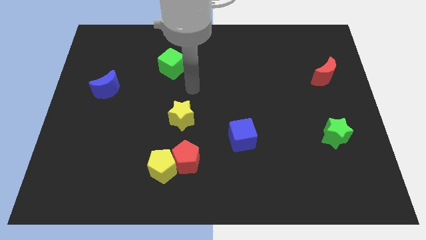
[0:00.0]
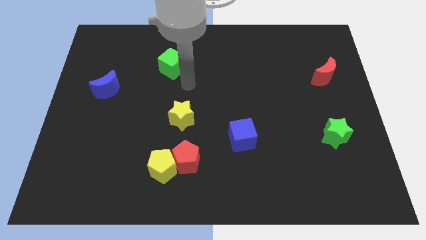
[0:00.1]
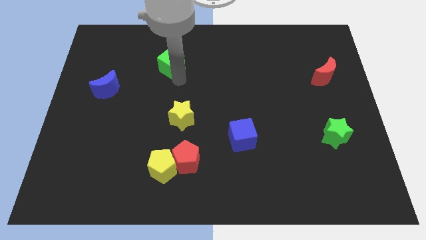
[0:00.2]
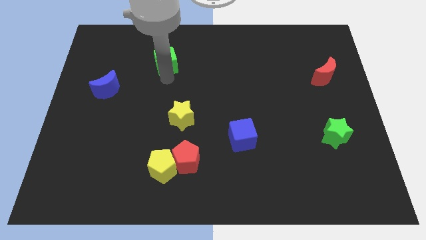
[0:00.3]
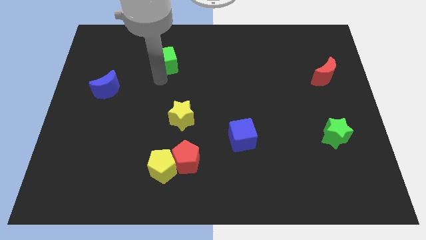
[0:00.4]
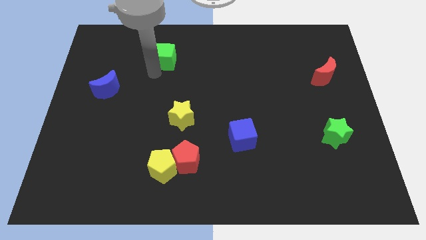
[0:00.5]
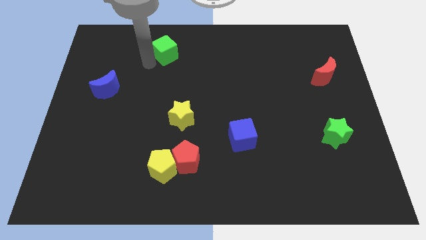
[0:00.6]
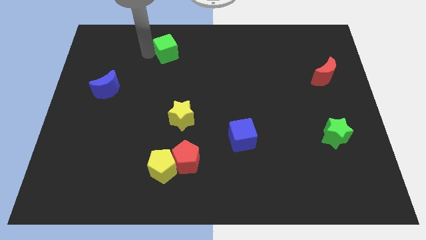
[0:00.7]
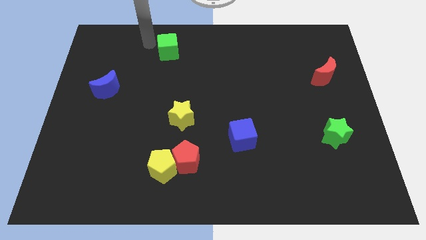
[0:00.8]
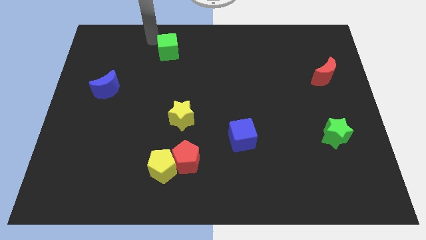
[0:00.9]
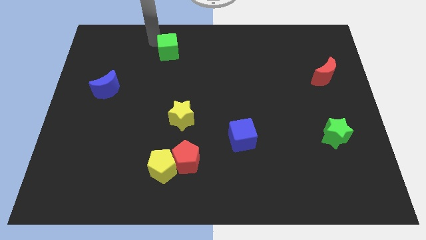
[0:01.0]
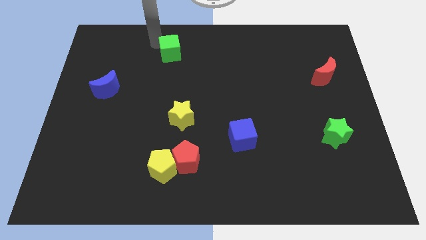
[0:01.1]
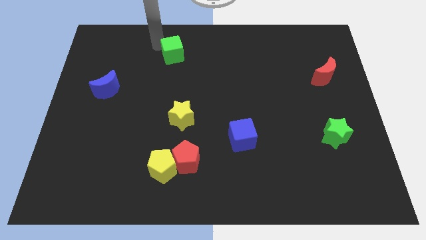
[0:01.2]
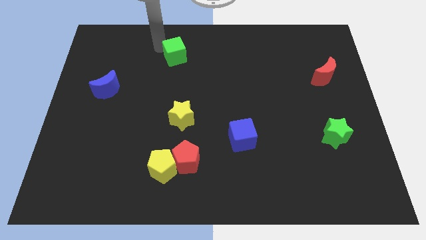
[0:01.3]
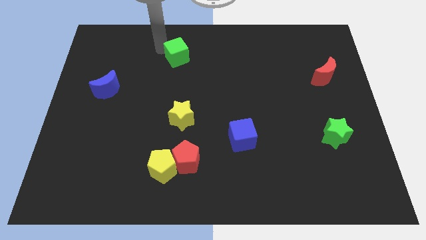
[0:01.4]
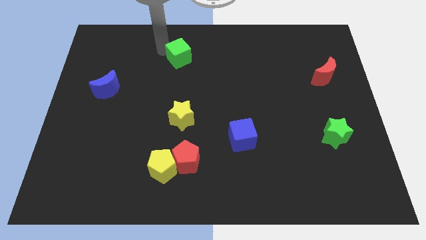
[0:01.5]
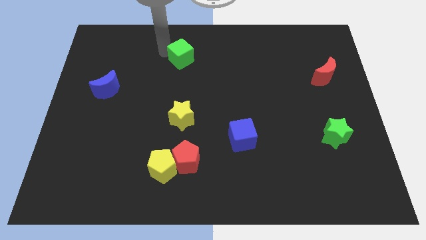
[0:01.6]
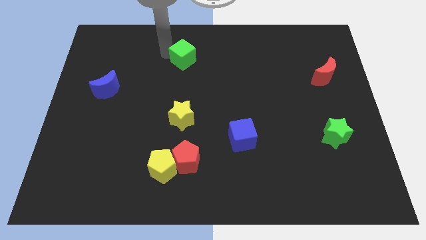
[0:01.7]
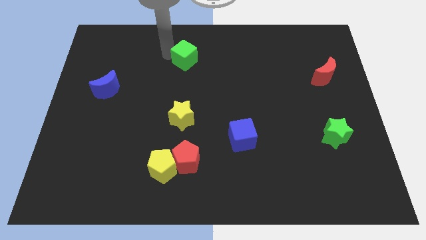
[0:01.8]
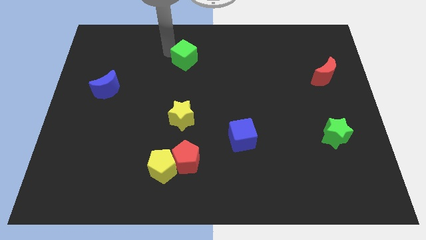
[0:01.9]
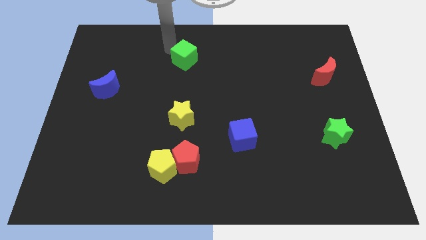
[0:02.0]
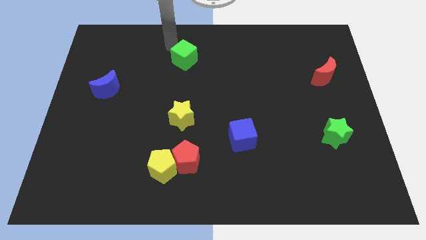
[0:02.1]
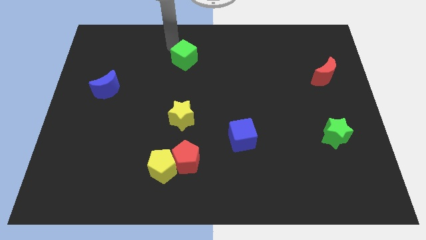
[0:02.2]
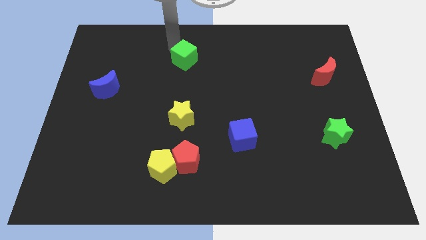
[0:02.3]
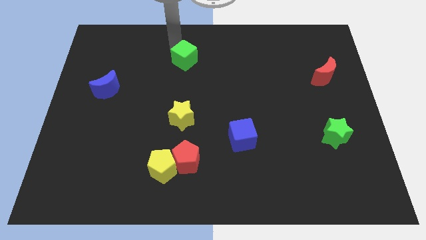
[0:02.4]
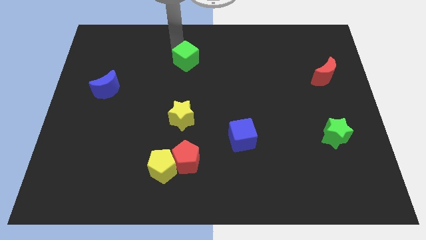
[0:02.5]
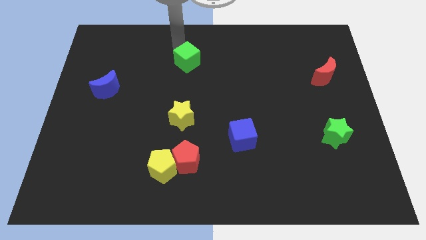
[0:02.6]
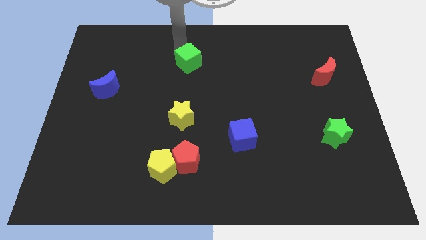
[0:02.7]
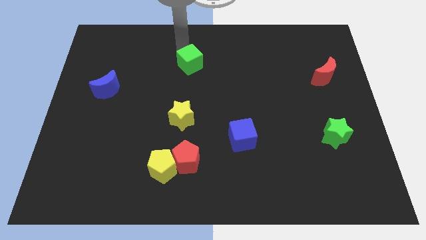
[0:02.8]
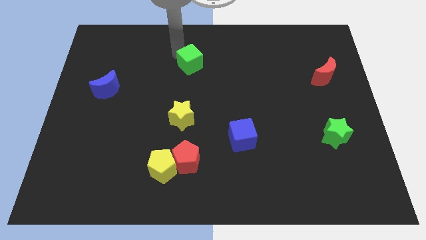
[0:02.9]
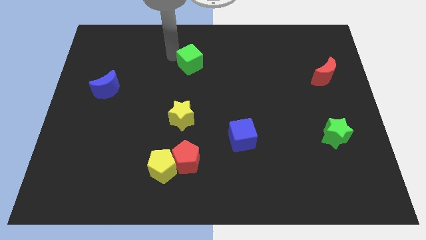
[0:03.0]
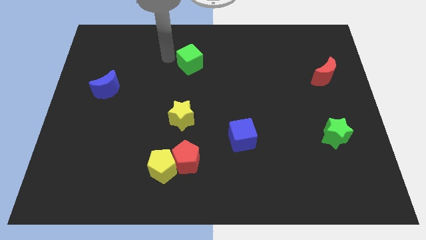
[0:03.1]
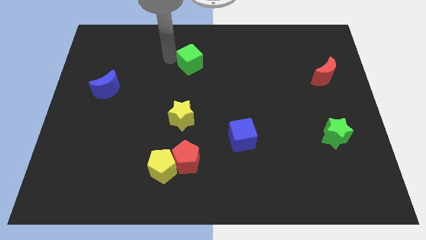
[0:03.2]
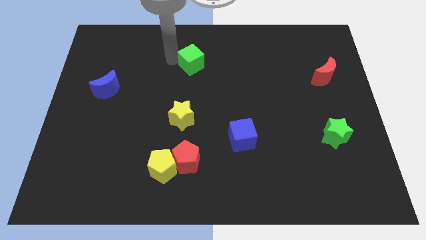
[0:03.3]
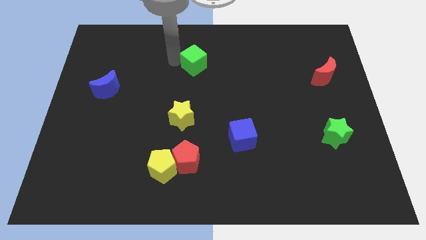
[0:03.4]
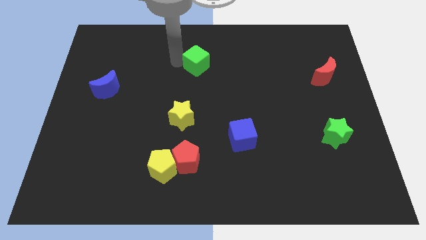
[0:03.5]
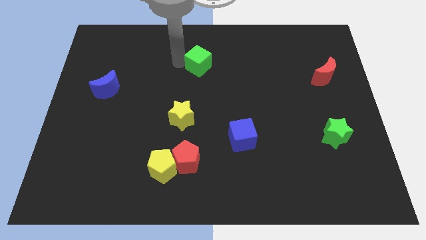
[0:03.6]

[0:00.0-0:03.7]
slide the green cube right a little bit

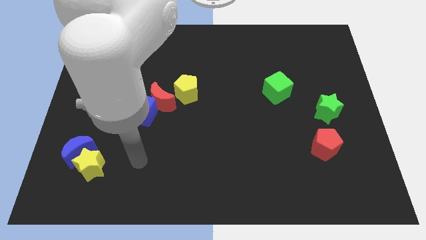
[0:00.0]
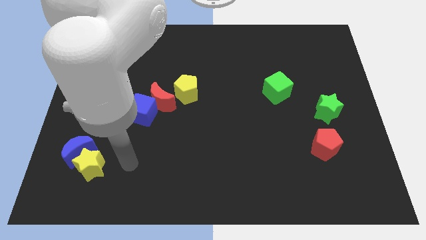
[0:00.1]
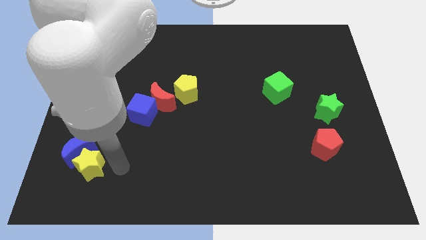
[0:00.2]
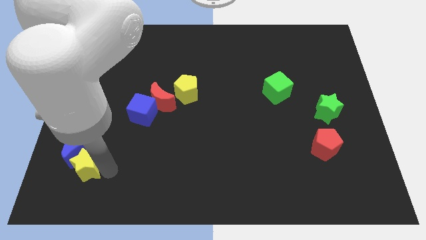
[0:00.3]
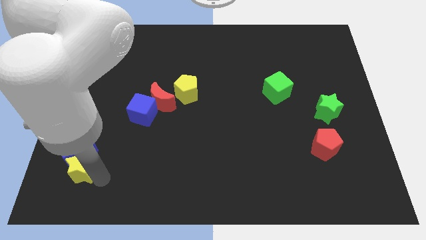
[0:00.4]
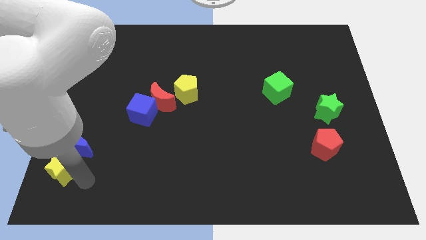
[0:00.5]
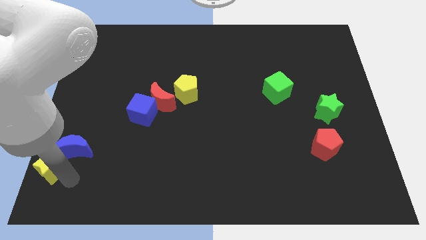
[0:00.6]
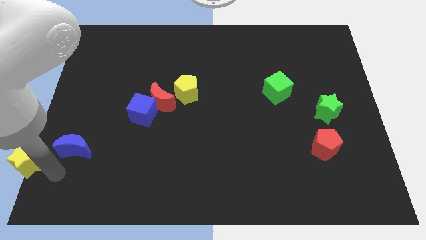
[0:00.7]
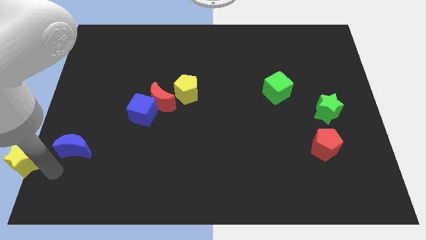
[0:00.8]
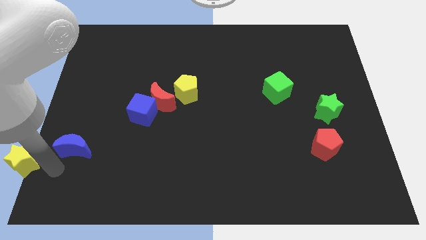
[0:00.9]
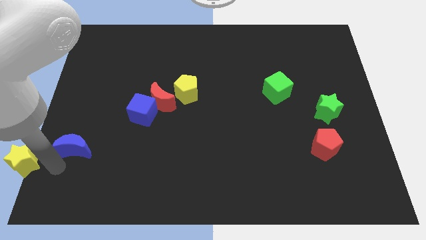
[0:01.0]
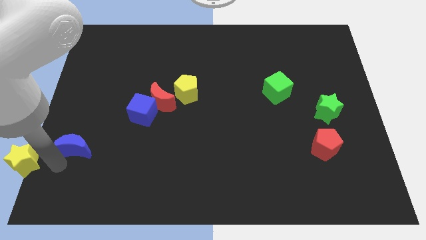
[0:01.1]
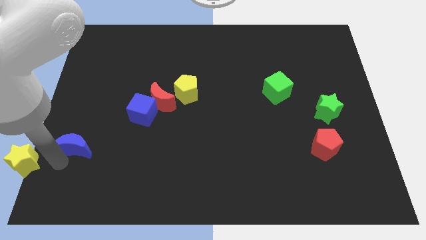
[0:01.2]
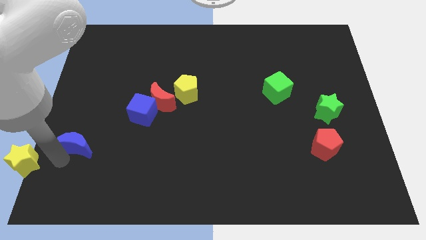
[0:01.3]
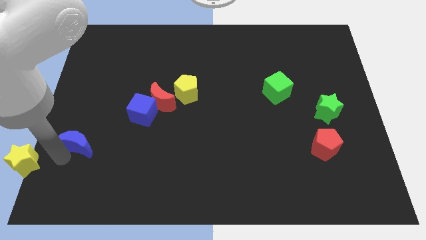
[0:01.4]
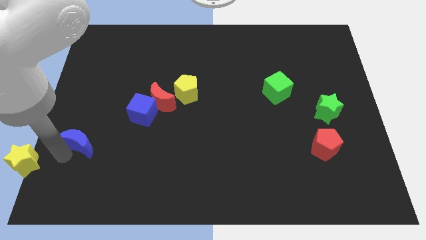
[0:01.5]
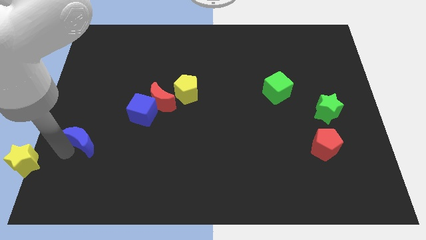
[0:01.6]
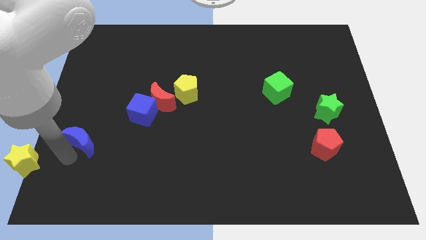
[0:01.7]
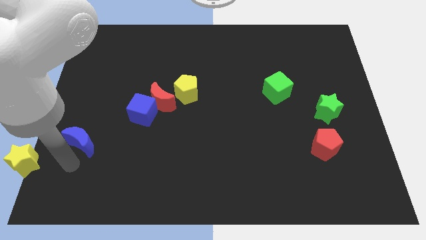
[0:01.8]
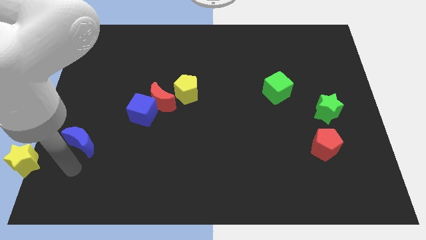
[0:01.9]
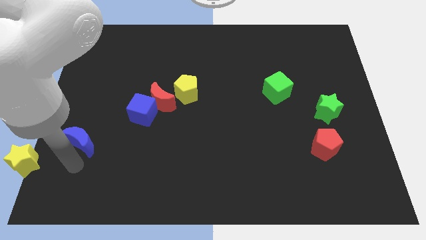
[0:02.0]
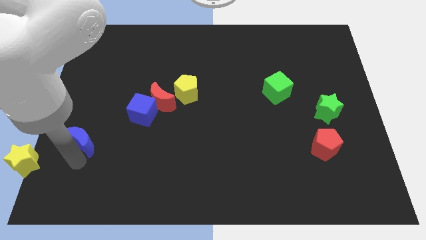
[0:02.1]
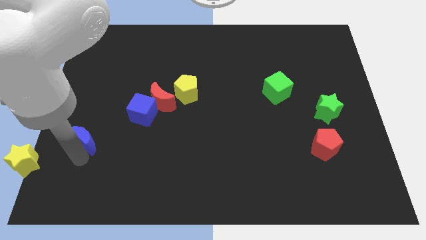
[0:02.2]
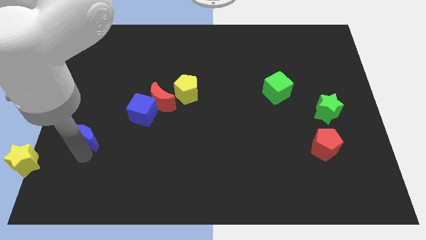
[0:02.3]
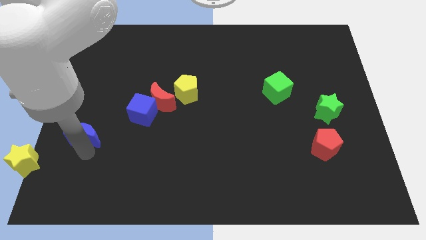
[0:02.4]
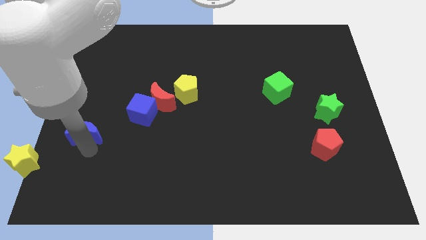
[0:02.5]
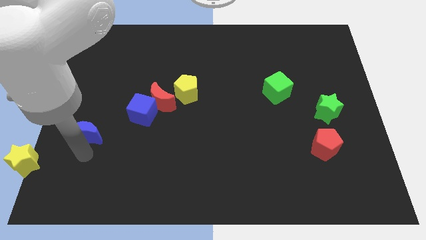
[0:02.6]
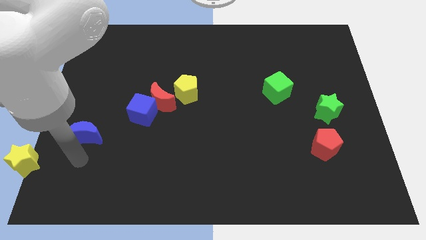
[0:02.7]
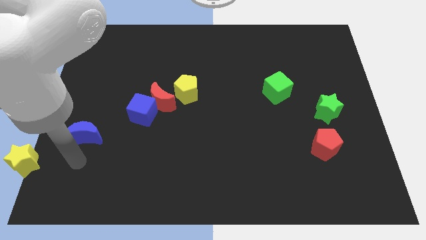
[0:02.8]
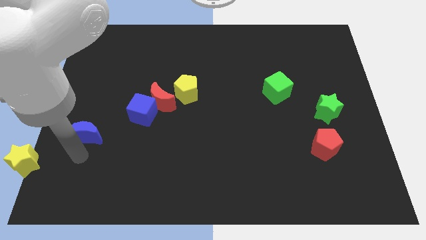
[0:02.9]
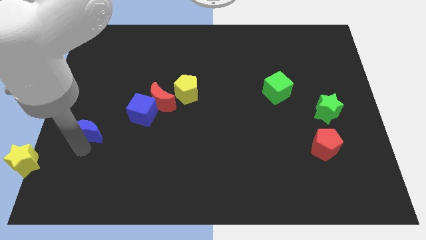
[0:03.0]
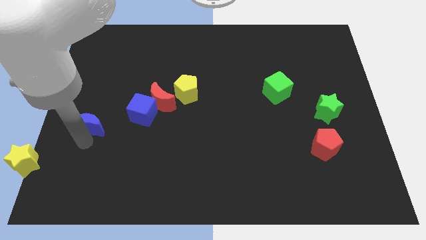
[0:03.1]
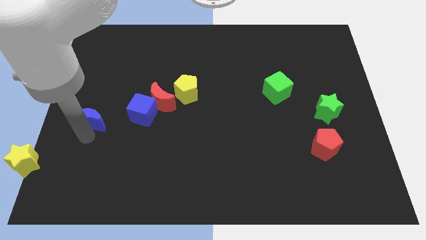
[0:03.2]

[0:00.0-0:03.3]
slightly slide the blue moon upwards

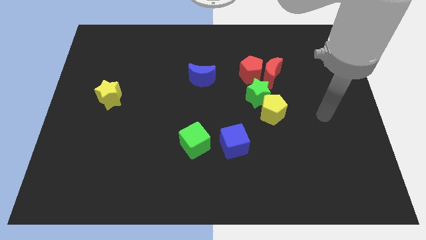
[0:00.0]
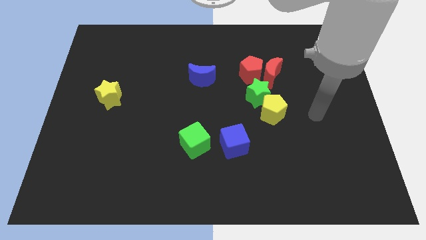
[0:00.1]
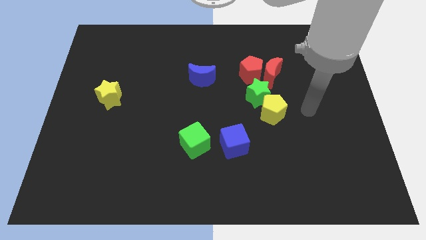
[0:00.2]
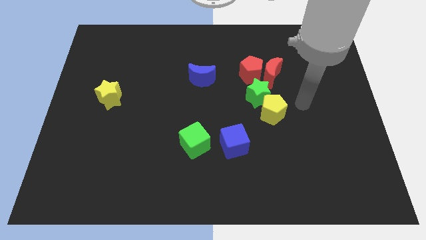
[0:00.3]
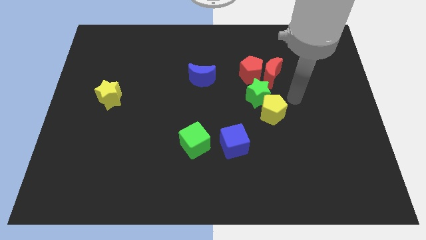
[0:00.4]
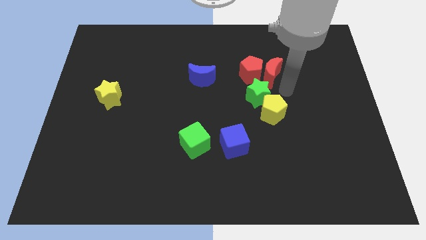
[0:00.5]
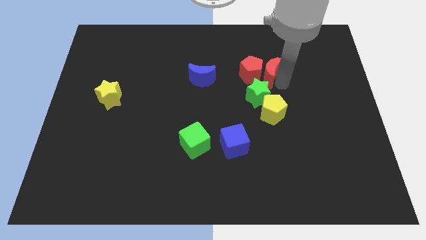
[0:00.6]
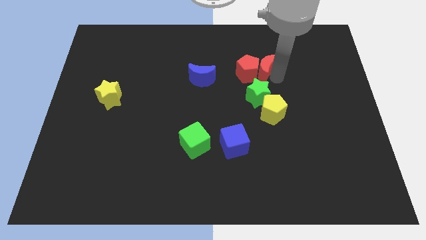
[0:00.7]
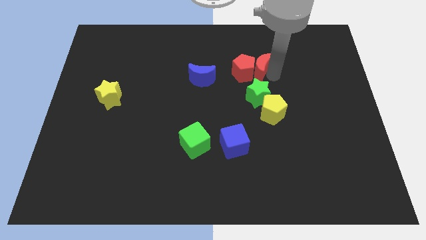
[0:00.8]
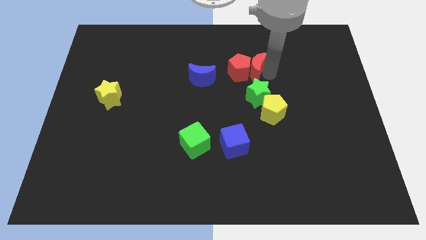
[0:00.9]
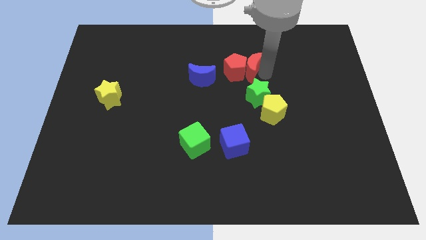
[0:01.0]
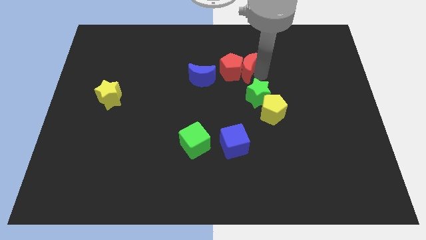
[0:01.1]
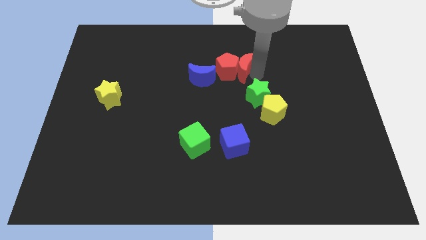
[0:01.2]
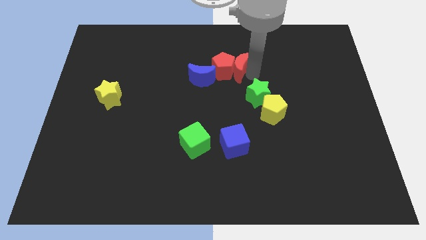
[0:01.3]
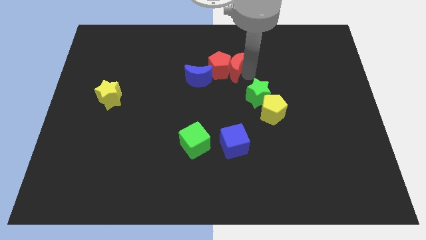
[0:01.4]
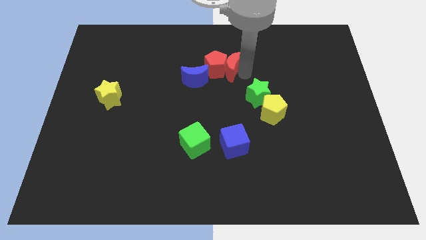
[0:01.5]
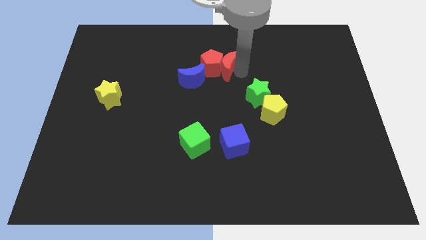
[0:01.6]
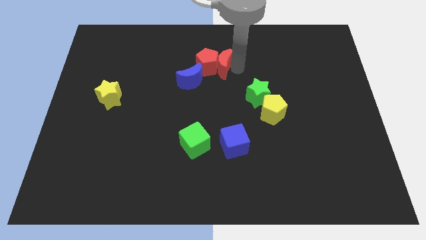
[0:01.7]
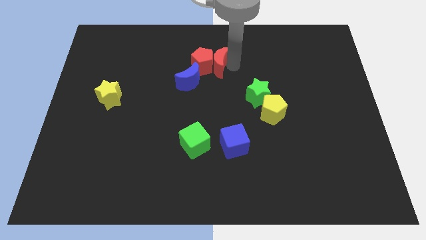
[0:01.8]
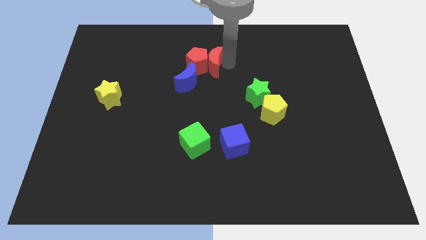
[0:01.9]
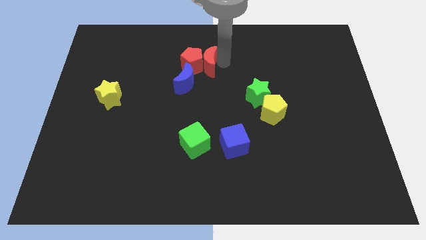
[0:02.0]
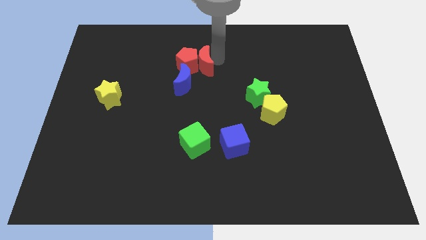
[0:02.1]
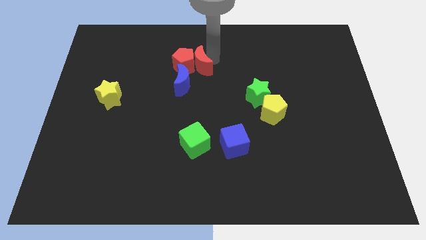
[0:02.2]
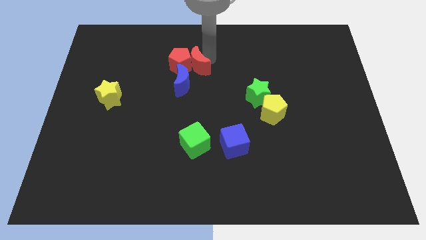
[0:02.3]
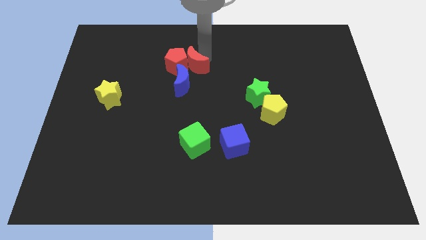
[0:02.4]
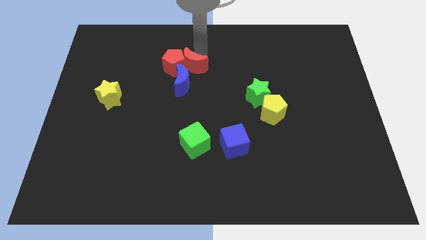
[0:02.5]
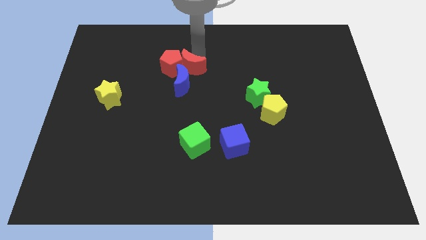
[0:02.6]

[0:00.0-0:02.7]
move the red pentagon left
